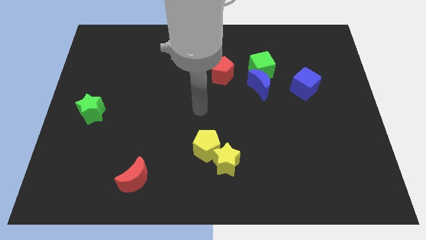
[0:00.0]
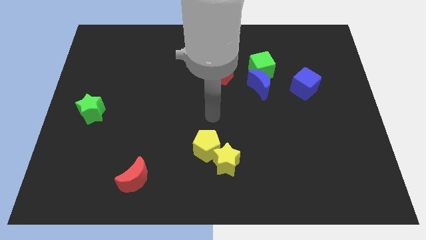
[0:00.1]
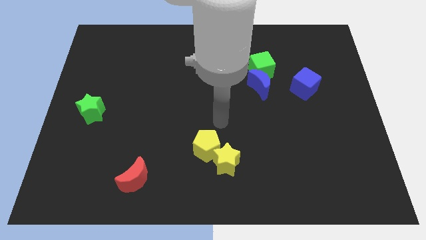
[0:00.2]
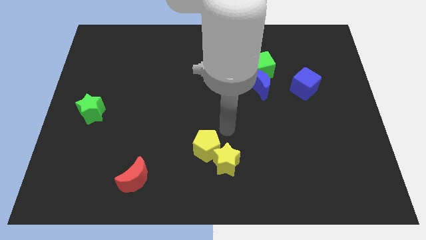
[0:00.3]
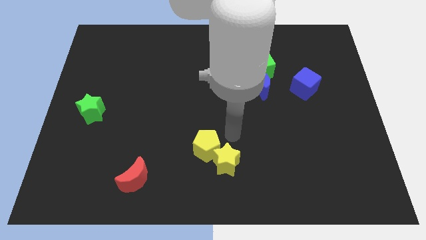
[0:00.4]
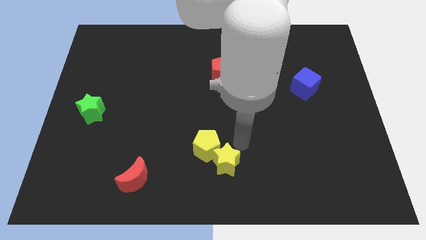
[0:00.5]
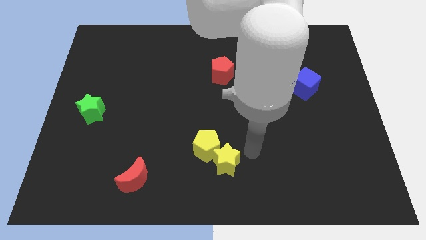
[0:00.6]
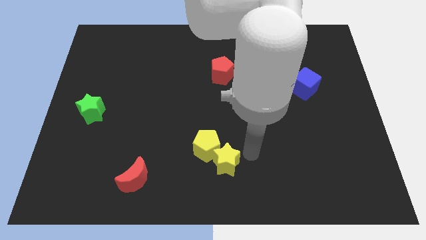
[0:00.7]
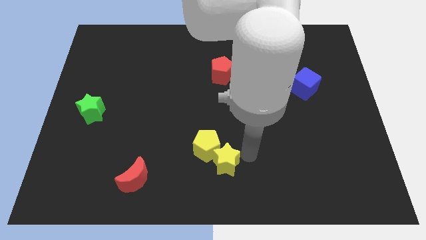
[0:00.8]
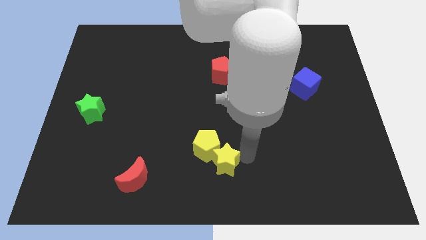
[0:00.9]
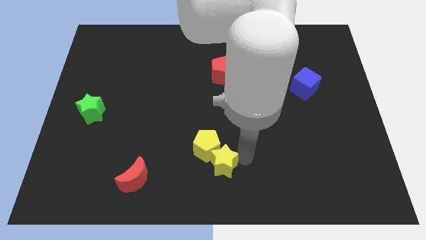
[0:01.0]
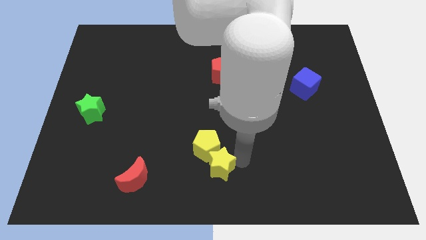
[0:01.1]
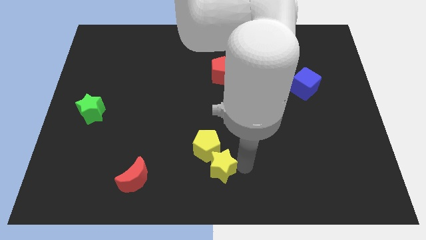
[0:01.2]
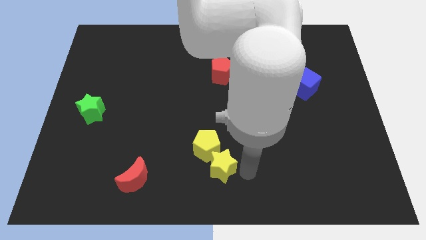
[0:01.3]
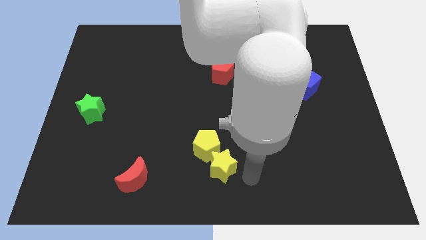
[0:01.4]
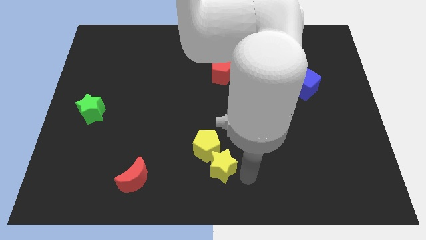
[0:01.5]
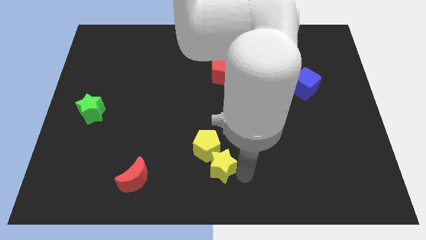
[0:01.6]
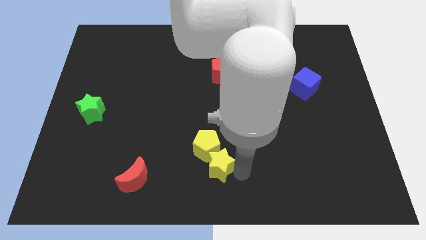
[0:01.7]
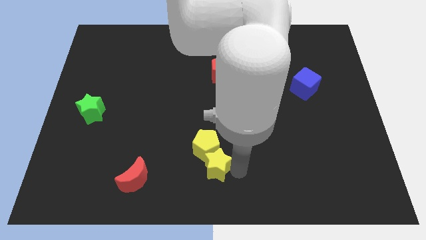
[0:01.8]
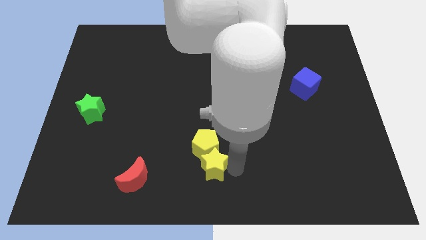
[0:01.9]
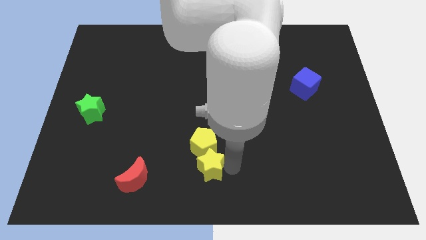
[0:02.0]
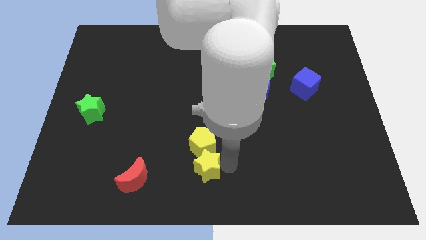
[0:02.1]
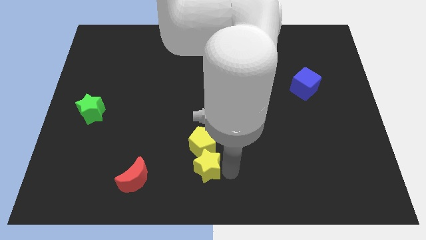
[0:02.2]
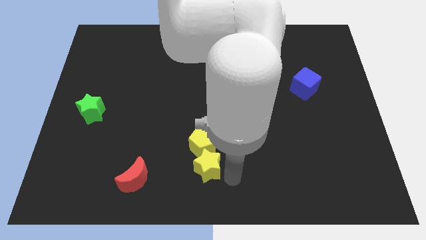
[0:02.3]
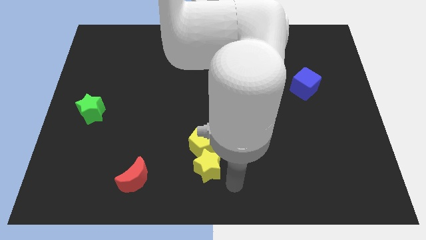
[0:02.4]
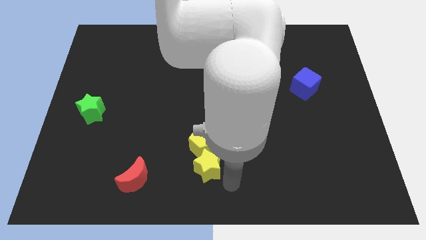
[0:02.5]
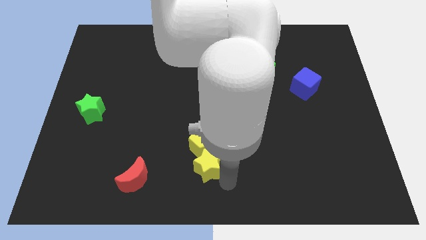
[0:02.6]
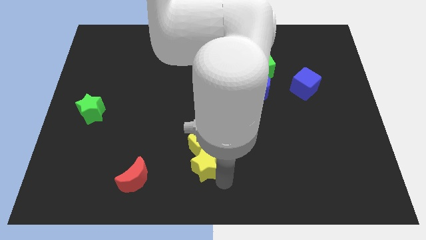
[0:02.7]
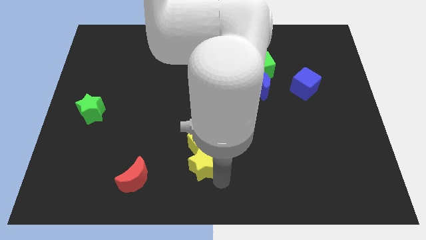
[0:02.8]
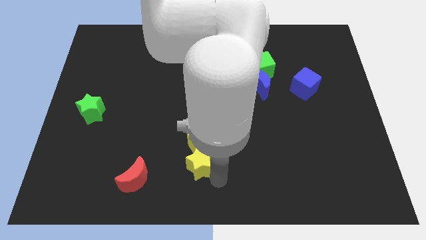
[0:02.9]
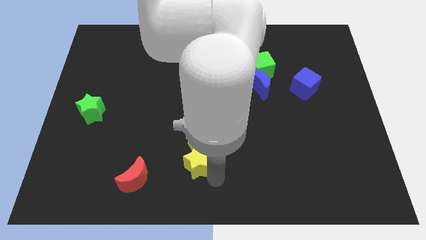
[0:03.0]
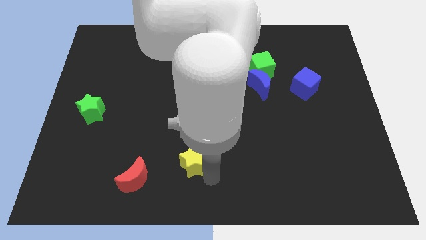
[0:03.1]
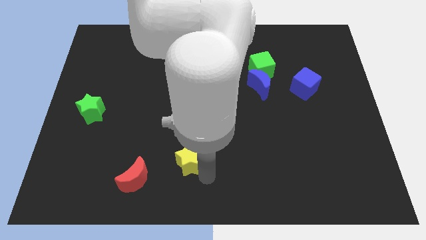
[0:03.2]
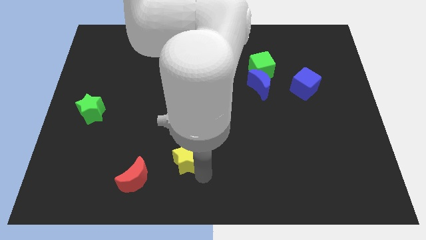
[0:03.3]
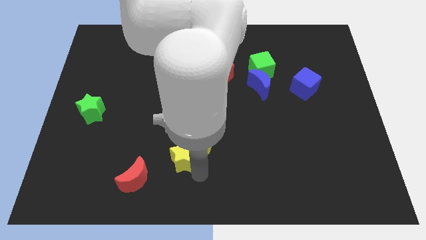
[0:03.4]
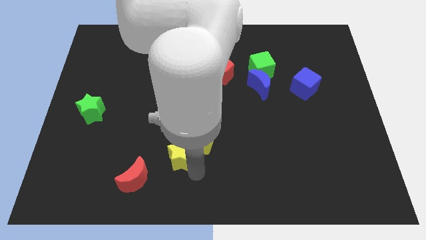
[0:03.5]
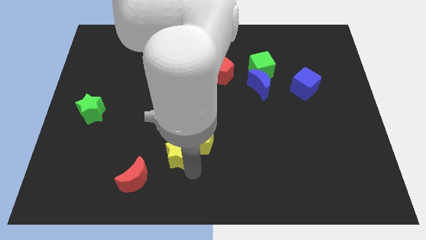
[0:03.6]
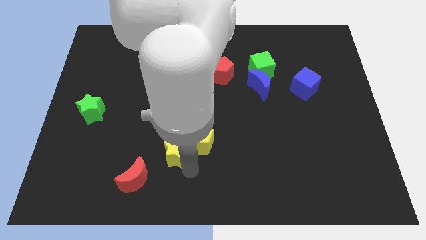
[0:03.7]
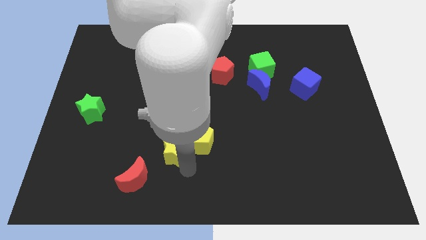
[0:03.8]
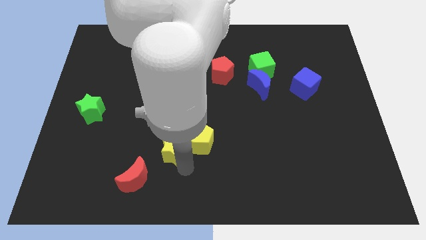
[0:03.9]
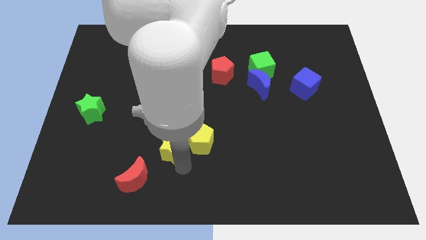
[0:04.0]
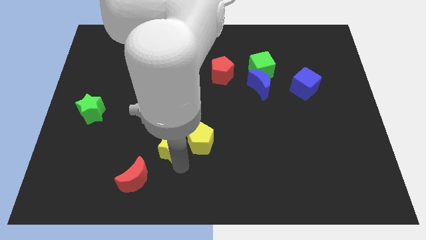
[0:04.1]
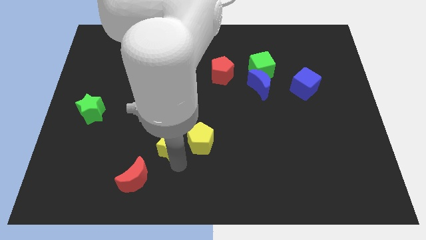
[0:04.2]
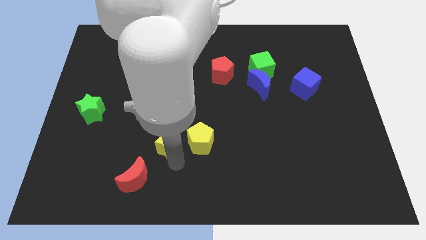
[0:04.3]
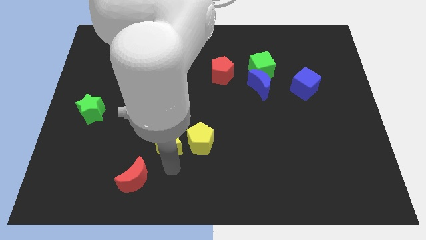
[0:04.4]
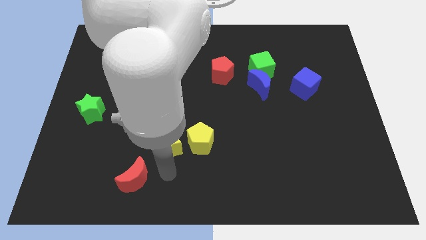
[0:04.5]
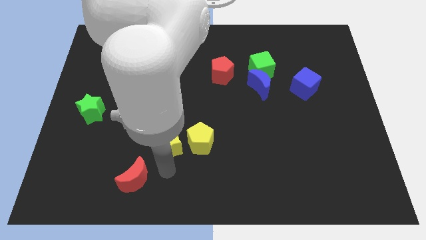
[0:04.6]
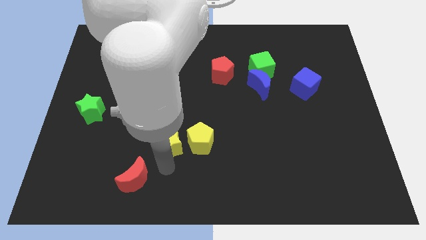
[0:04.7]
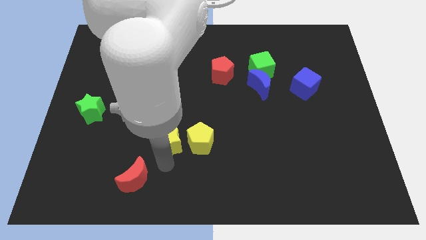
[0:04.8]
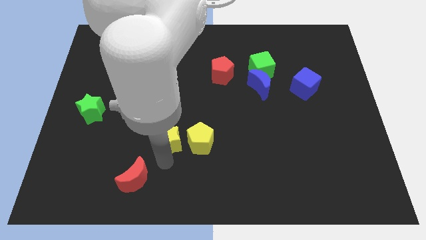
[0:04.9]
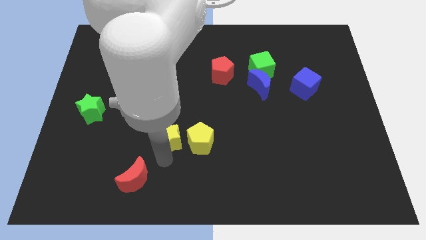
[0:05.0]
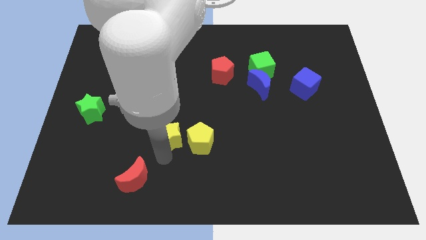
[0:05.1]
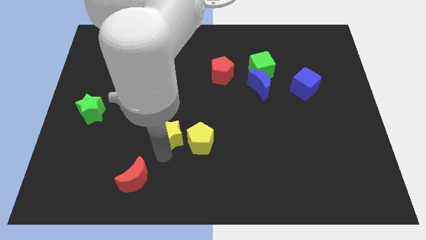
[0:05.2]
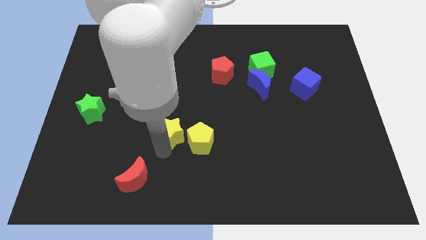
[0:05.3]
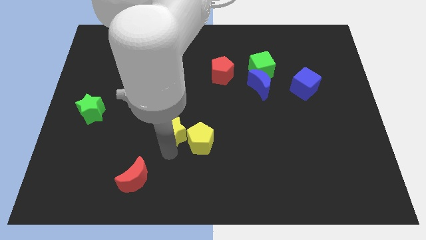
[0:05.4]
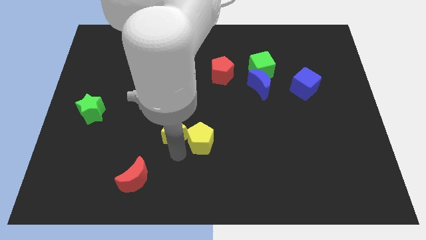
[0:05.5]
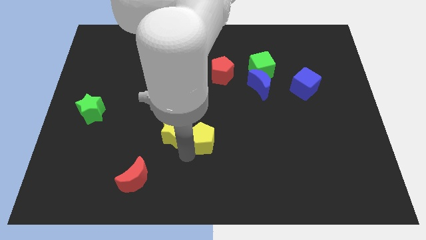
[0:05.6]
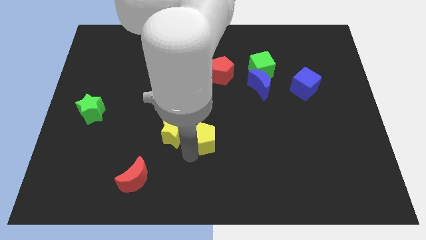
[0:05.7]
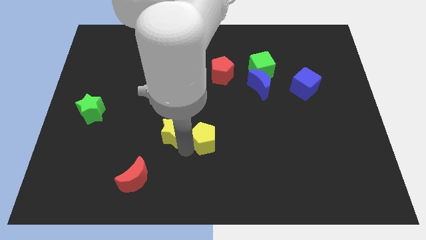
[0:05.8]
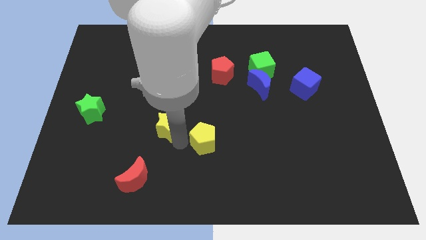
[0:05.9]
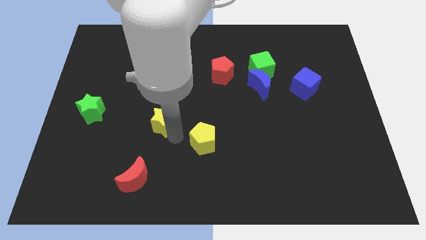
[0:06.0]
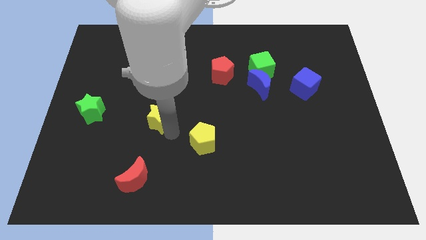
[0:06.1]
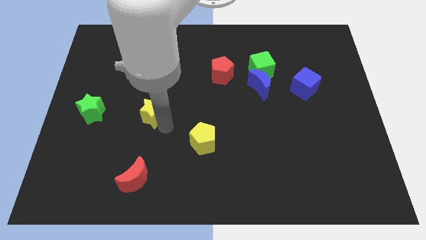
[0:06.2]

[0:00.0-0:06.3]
slide the yellow star up and to the left

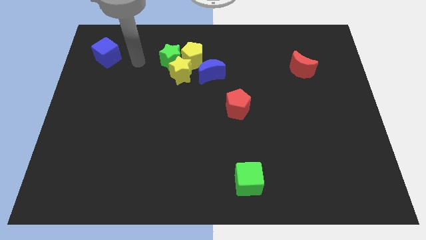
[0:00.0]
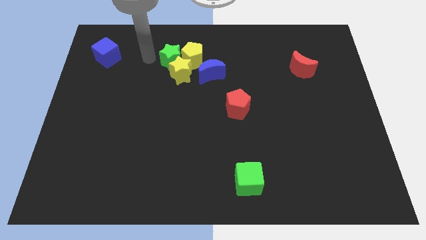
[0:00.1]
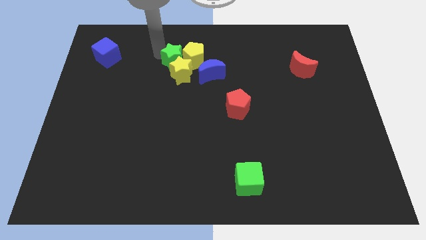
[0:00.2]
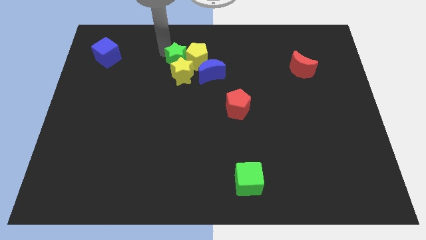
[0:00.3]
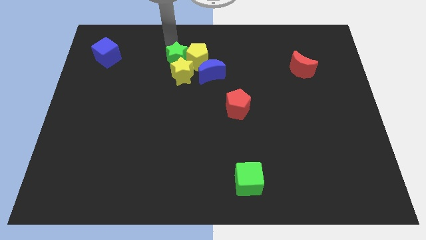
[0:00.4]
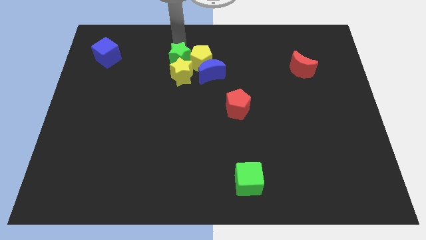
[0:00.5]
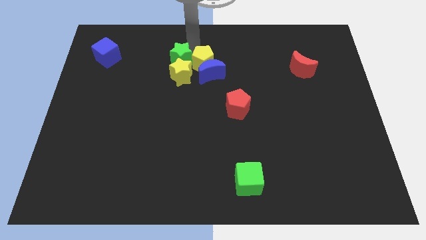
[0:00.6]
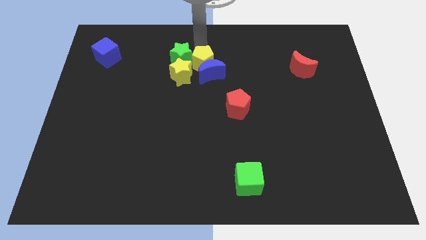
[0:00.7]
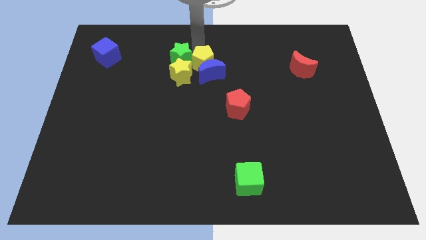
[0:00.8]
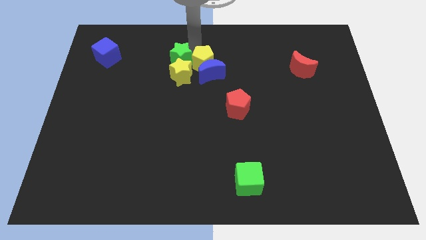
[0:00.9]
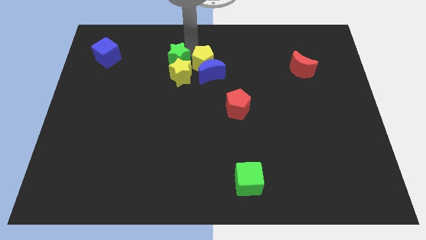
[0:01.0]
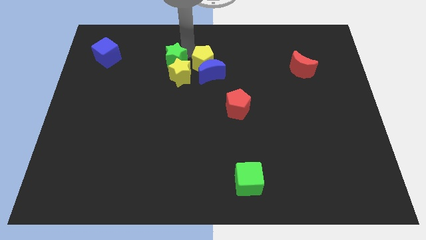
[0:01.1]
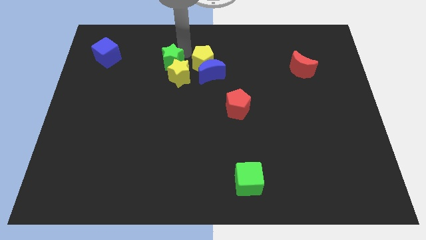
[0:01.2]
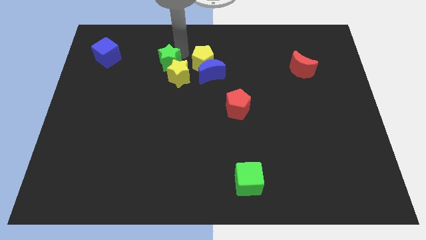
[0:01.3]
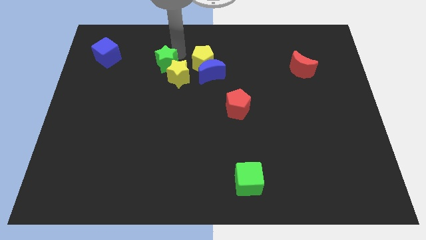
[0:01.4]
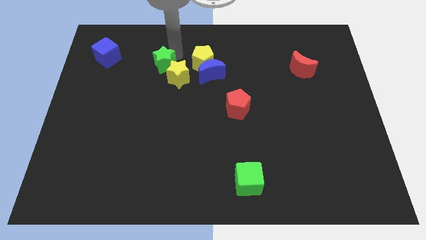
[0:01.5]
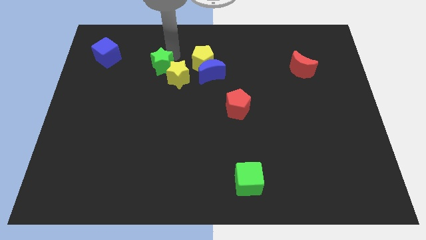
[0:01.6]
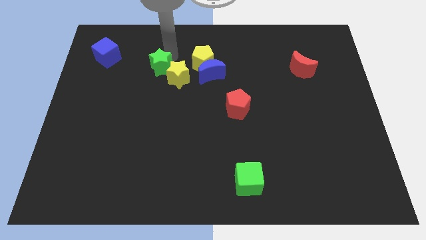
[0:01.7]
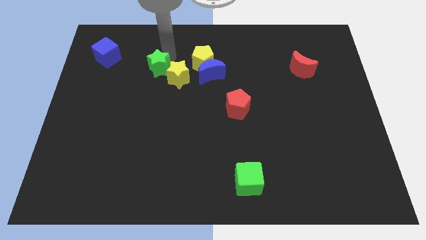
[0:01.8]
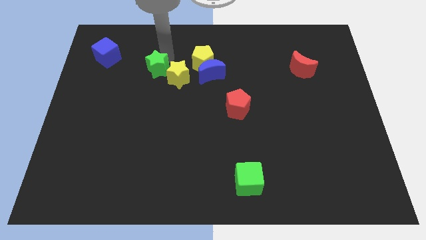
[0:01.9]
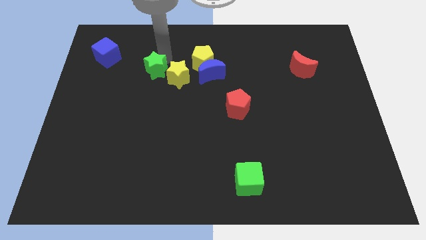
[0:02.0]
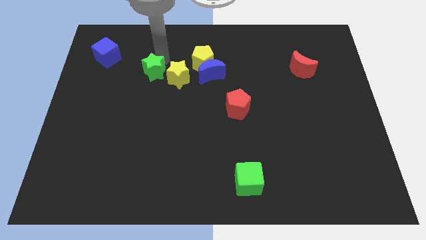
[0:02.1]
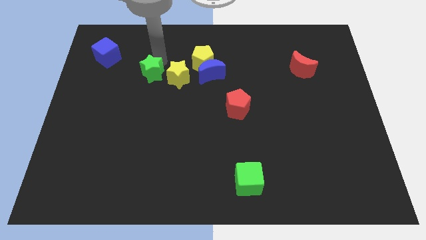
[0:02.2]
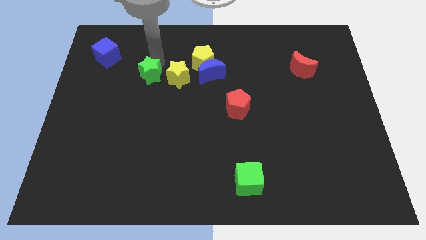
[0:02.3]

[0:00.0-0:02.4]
slide the green star a little downwards and to the left diagonally
